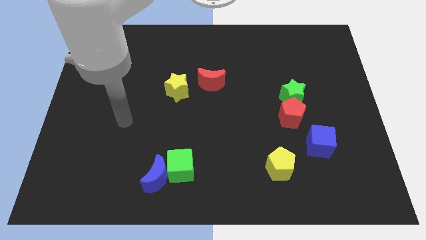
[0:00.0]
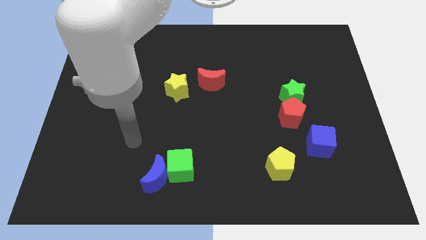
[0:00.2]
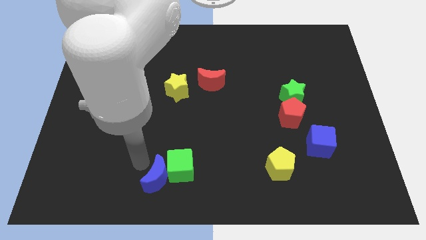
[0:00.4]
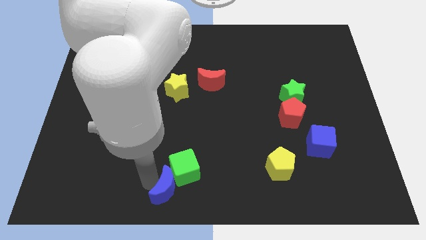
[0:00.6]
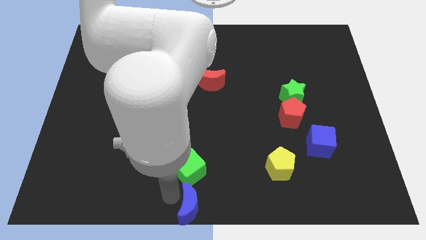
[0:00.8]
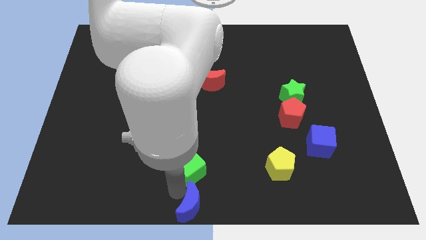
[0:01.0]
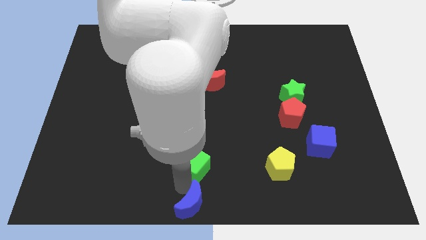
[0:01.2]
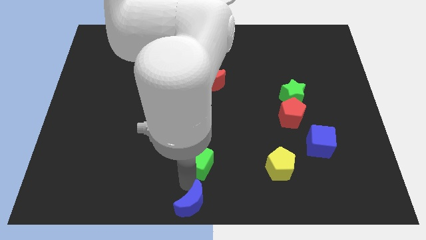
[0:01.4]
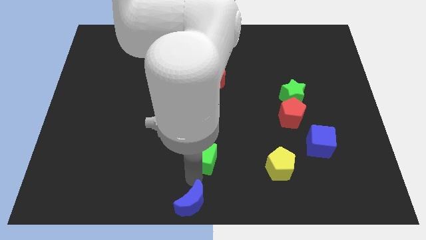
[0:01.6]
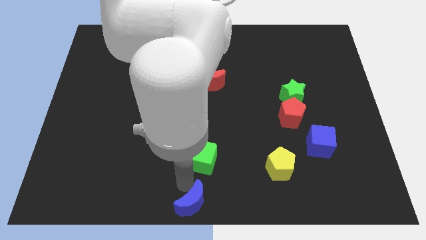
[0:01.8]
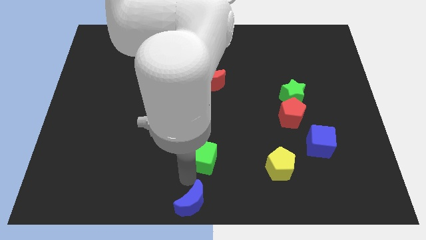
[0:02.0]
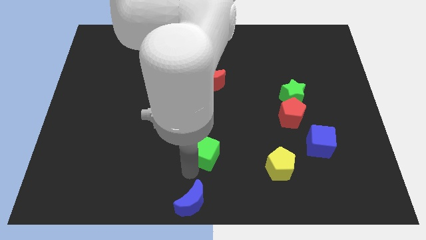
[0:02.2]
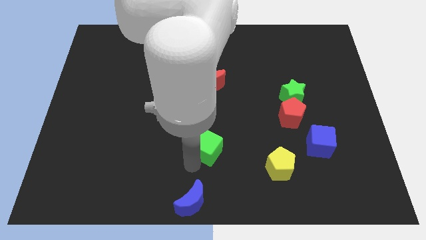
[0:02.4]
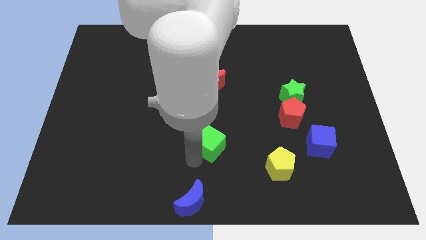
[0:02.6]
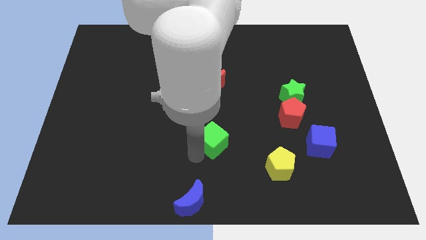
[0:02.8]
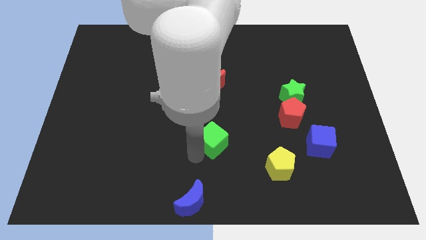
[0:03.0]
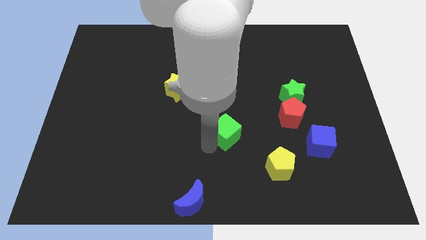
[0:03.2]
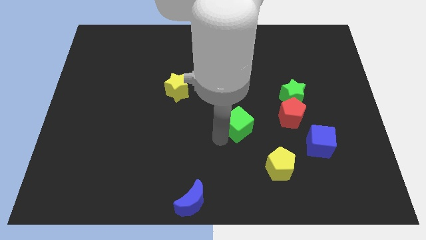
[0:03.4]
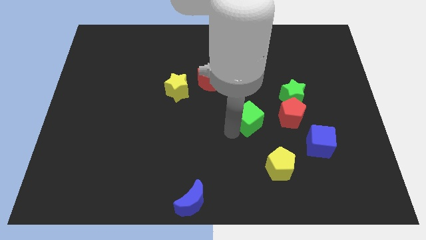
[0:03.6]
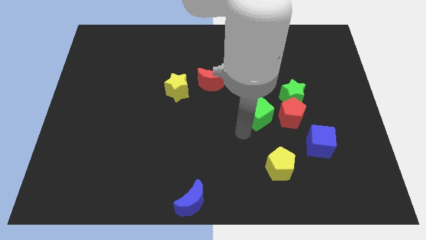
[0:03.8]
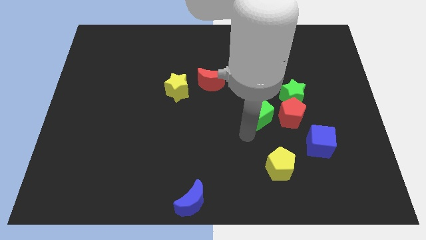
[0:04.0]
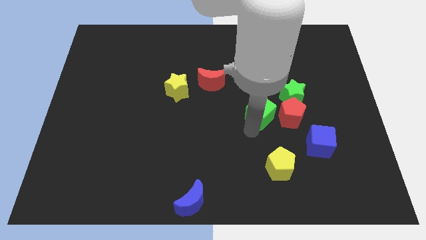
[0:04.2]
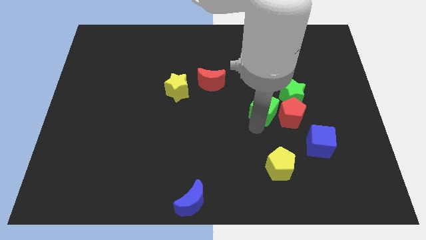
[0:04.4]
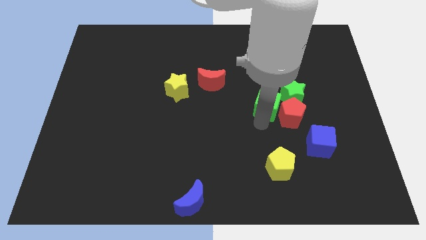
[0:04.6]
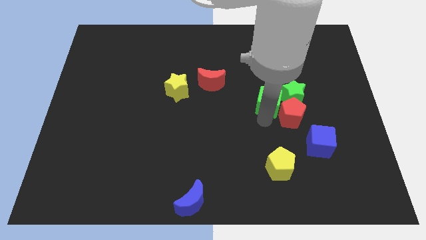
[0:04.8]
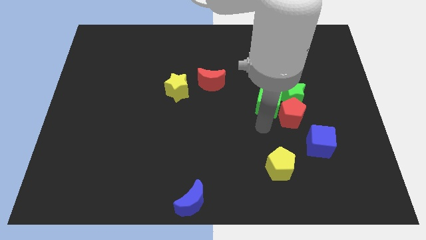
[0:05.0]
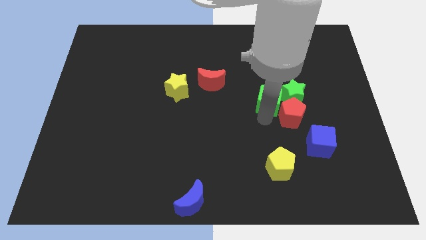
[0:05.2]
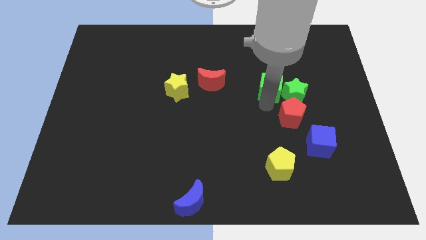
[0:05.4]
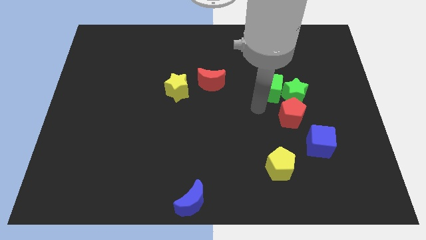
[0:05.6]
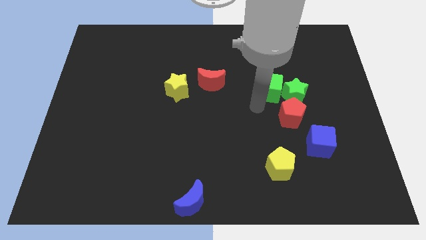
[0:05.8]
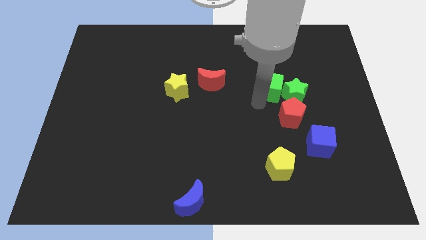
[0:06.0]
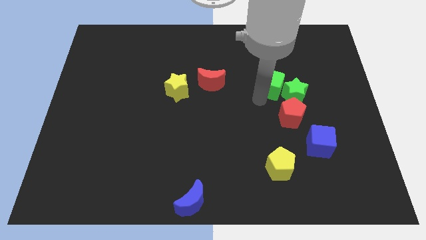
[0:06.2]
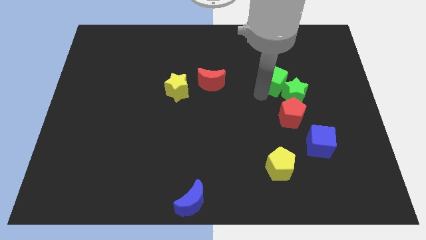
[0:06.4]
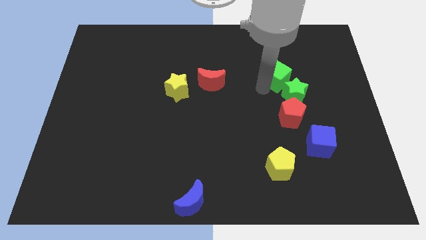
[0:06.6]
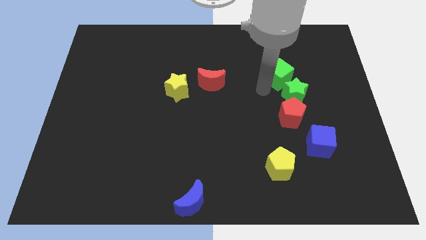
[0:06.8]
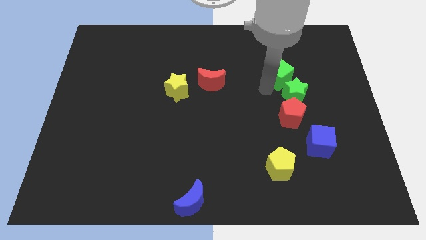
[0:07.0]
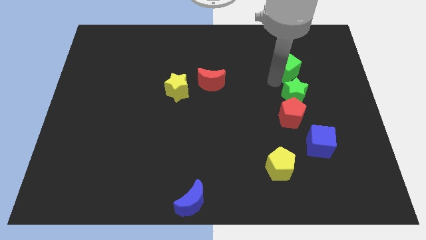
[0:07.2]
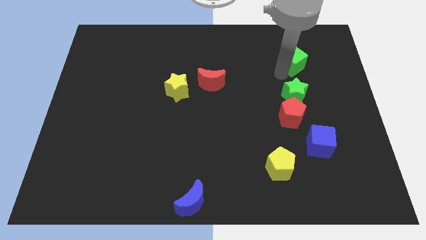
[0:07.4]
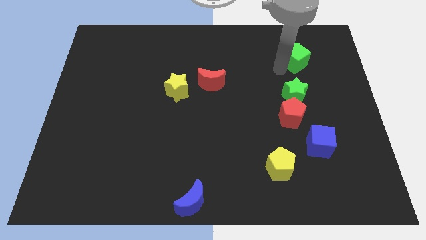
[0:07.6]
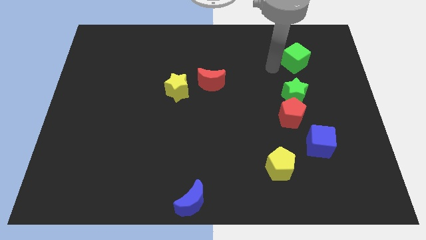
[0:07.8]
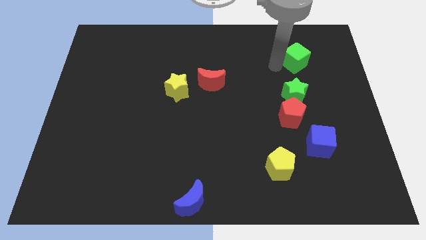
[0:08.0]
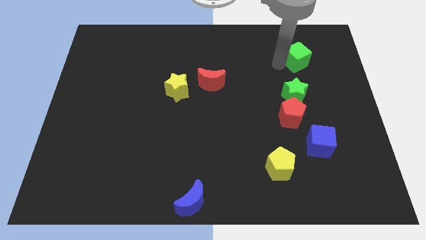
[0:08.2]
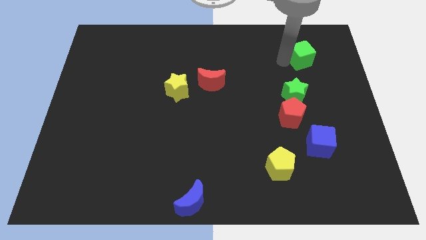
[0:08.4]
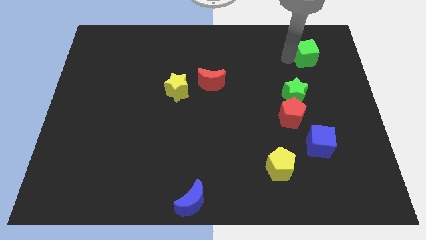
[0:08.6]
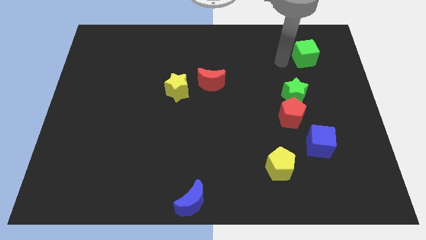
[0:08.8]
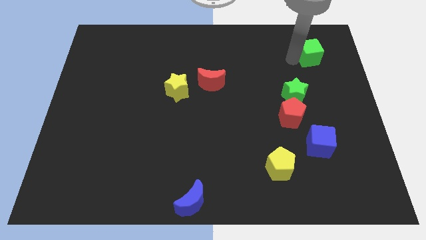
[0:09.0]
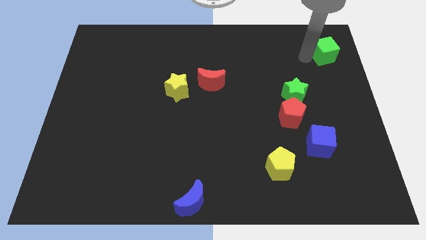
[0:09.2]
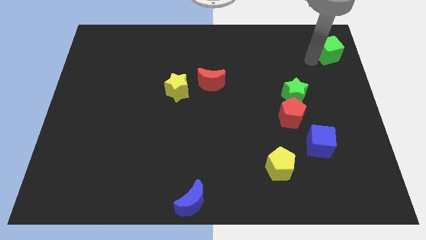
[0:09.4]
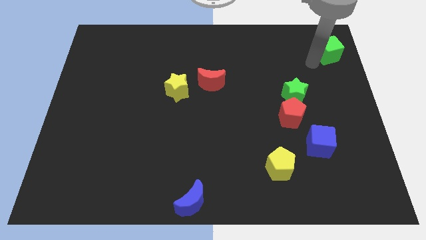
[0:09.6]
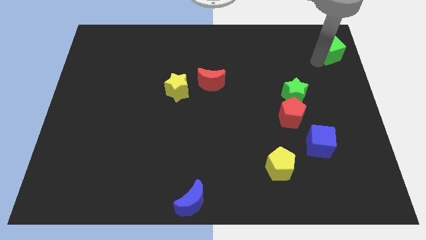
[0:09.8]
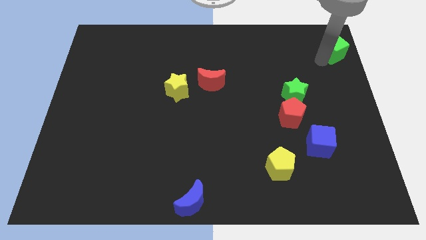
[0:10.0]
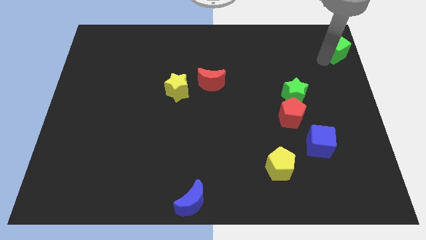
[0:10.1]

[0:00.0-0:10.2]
push the green cube to the top right corner

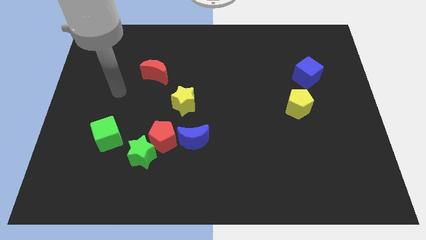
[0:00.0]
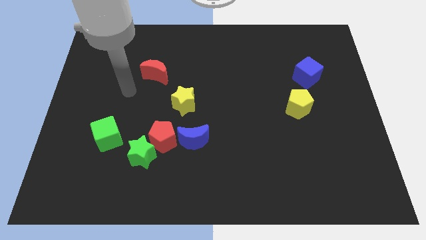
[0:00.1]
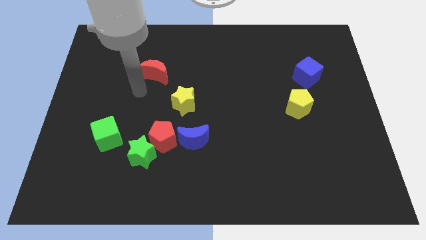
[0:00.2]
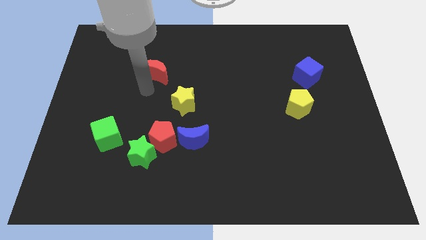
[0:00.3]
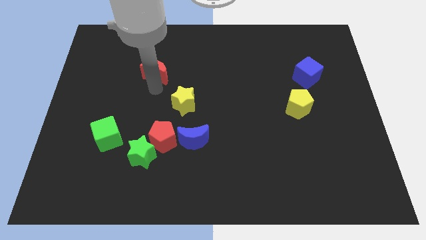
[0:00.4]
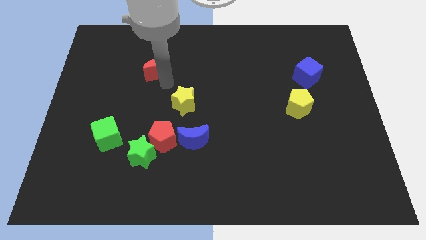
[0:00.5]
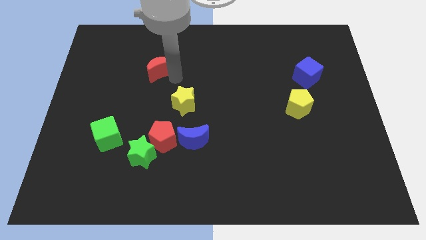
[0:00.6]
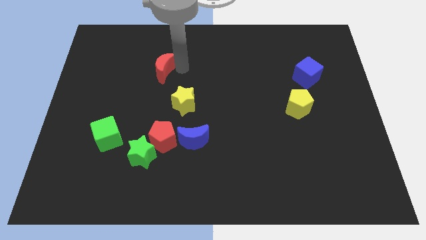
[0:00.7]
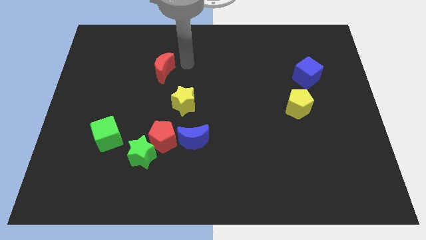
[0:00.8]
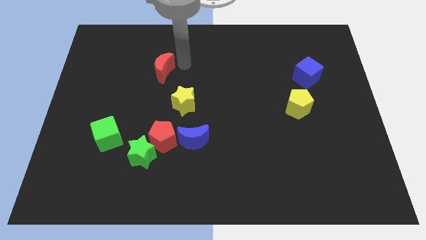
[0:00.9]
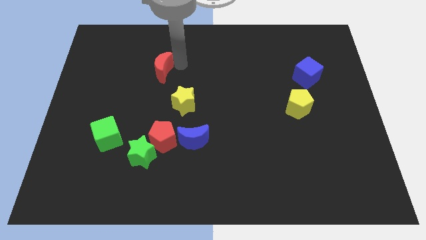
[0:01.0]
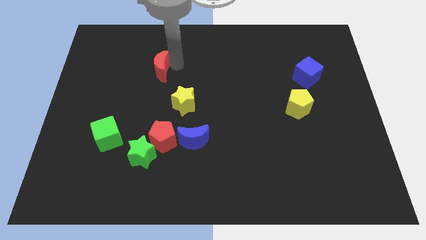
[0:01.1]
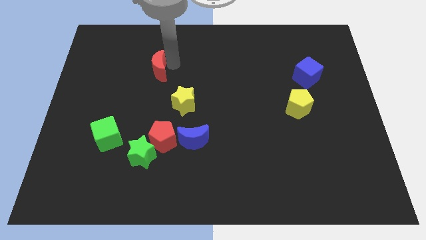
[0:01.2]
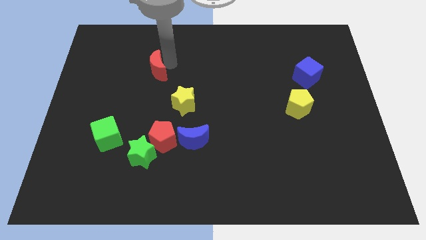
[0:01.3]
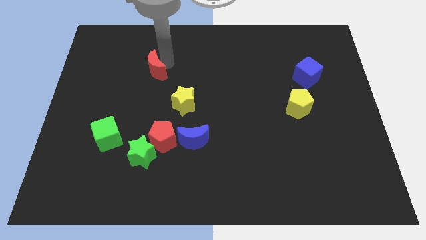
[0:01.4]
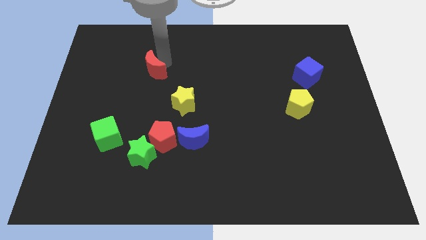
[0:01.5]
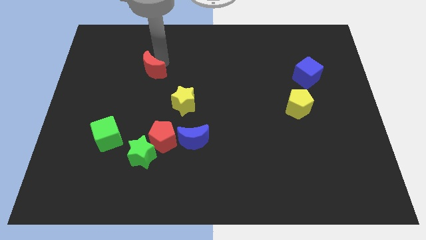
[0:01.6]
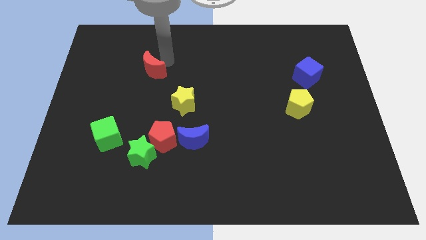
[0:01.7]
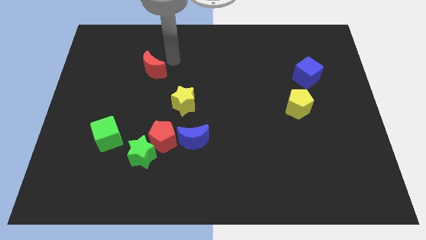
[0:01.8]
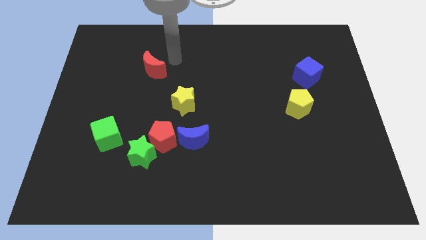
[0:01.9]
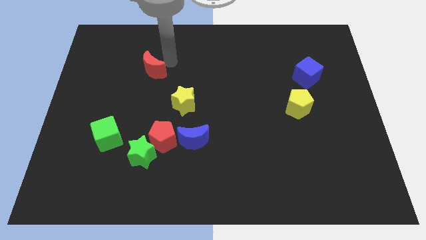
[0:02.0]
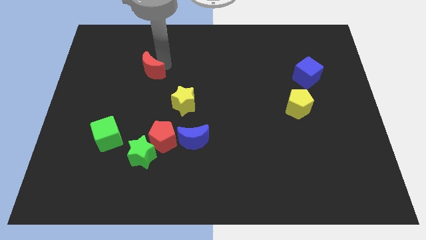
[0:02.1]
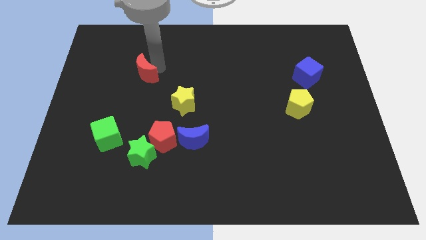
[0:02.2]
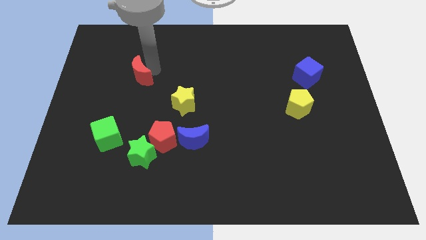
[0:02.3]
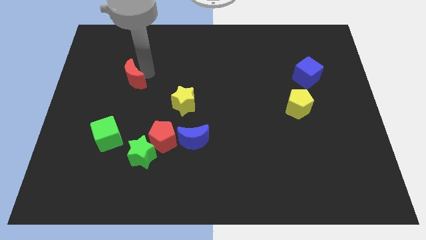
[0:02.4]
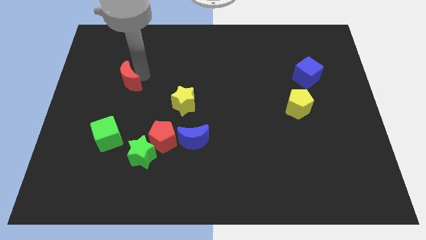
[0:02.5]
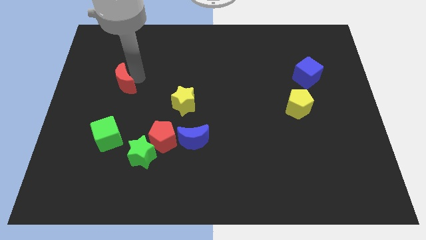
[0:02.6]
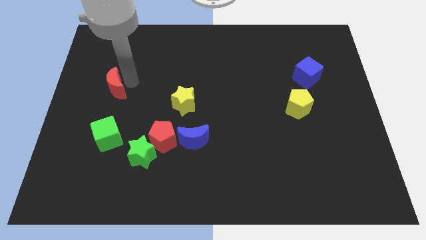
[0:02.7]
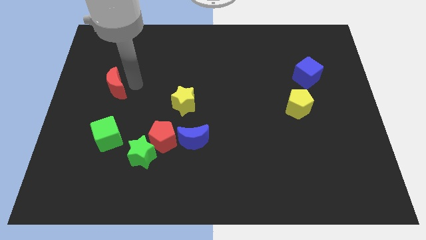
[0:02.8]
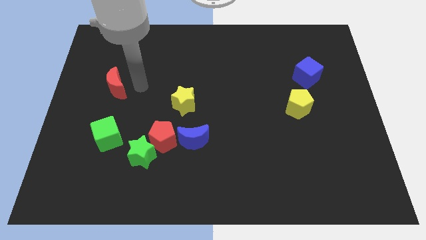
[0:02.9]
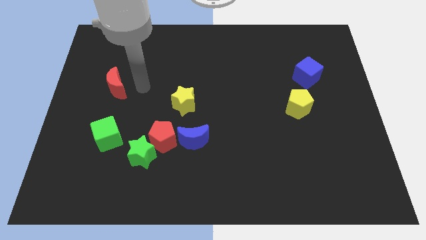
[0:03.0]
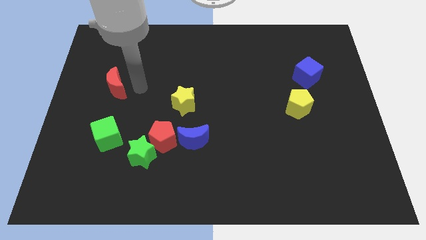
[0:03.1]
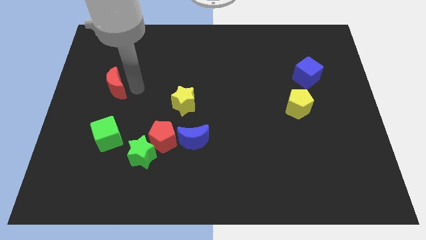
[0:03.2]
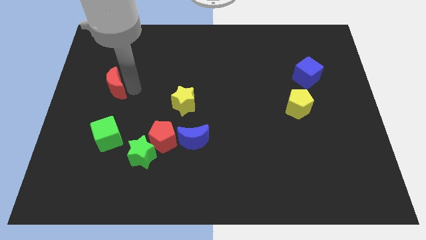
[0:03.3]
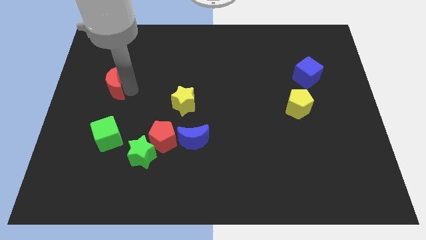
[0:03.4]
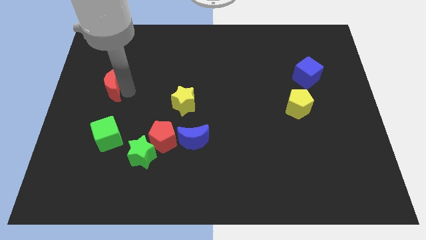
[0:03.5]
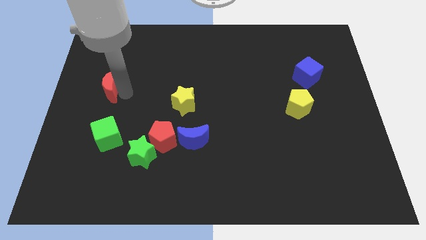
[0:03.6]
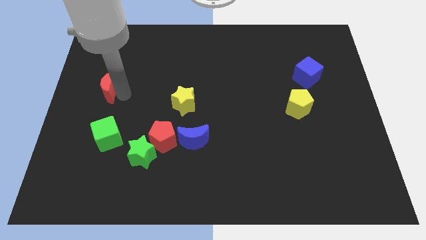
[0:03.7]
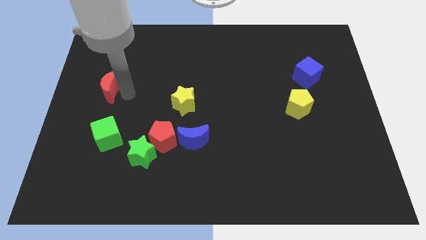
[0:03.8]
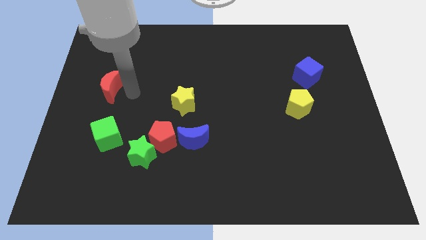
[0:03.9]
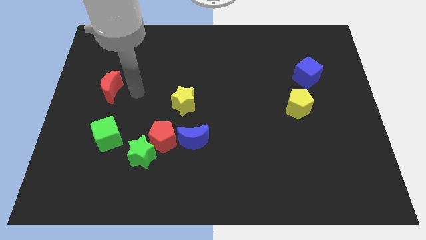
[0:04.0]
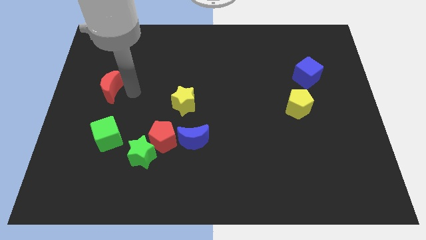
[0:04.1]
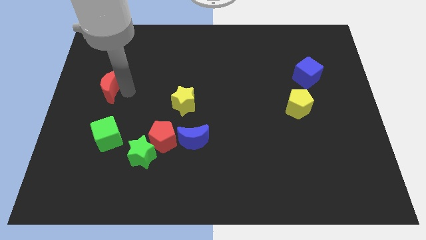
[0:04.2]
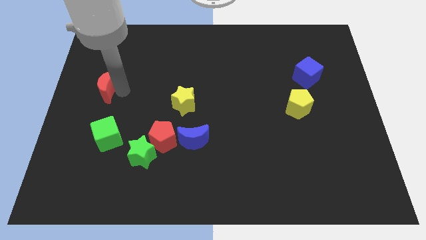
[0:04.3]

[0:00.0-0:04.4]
slide the red moon to the left side
